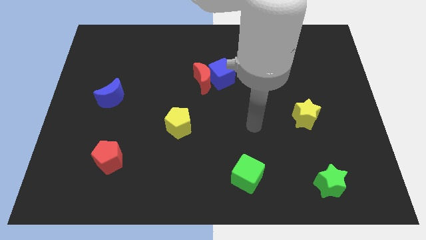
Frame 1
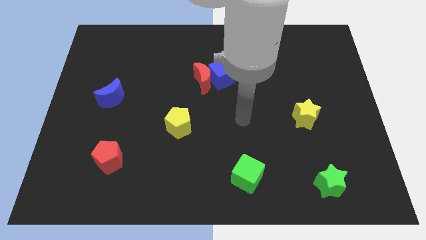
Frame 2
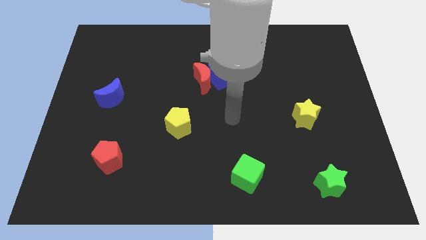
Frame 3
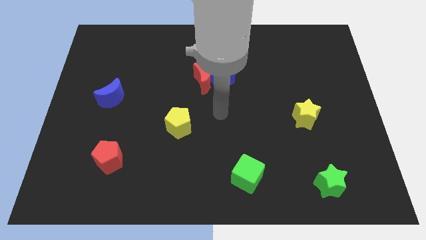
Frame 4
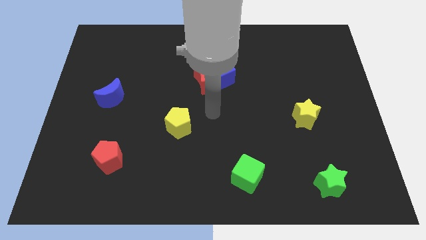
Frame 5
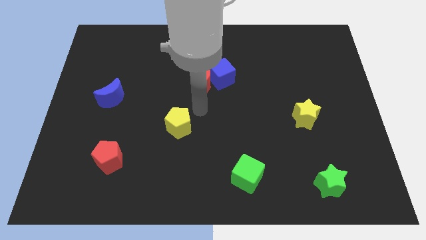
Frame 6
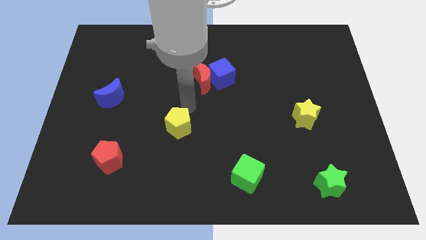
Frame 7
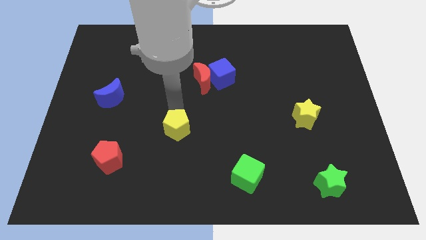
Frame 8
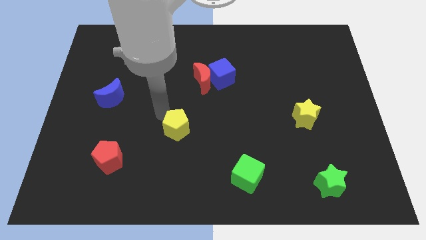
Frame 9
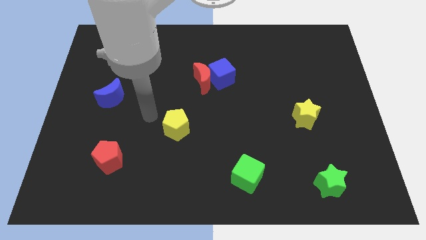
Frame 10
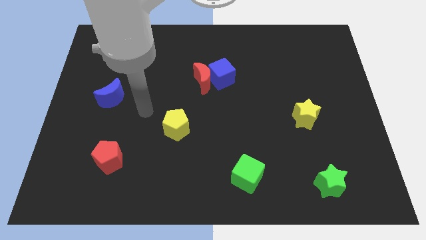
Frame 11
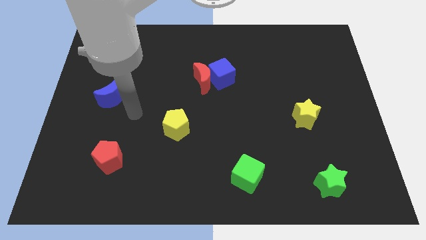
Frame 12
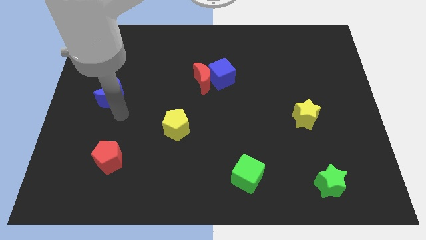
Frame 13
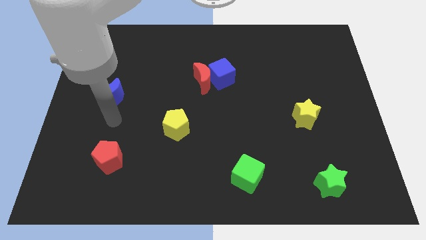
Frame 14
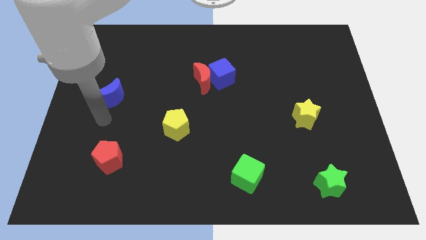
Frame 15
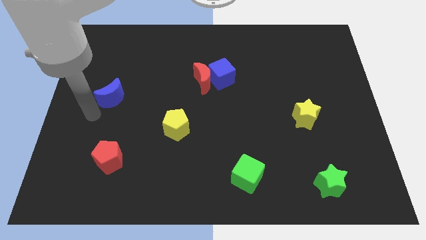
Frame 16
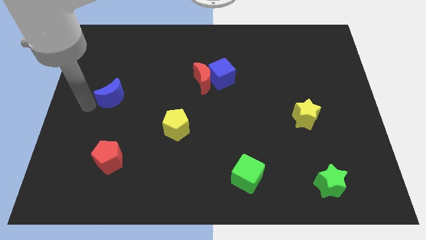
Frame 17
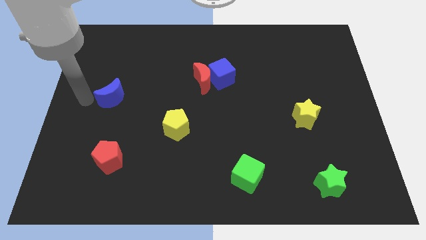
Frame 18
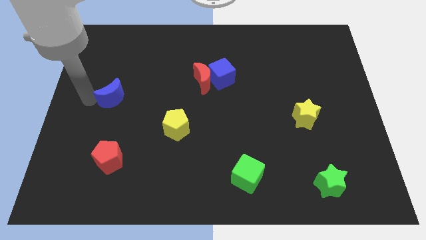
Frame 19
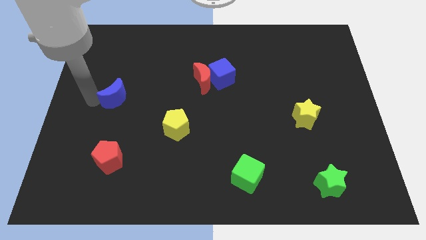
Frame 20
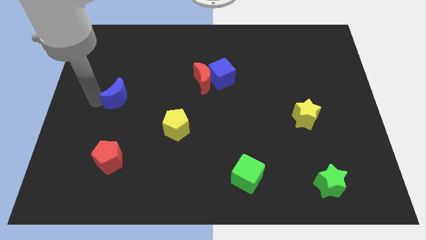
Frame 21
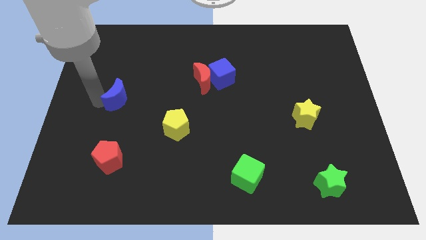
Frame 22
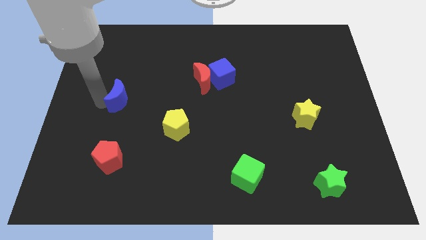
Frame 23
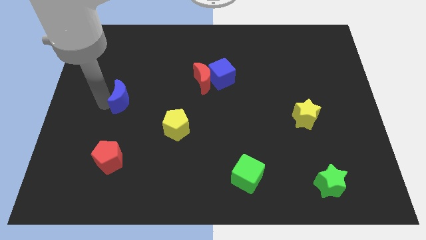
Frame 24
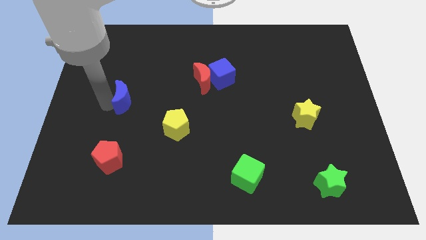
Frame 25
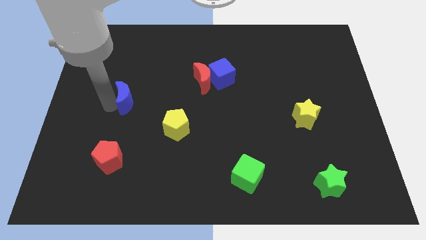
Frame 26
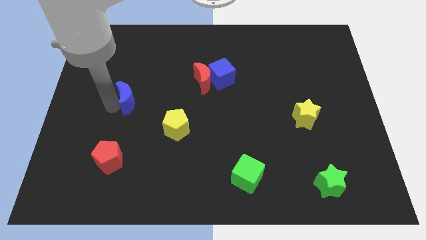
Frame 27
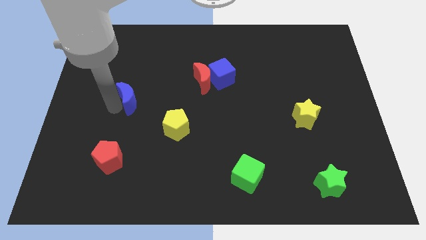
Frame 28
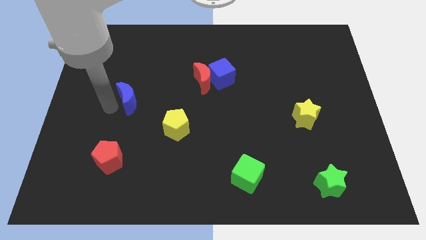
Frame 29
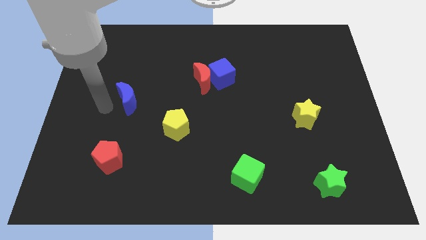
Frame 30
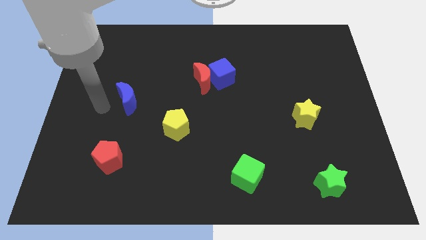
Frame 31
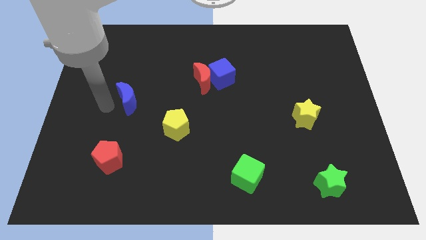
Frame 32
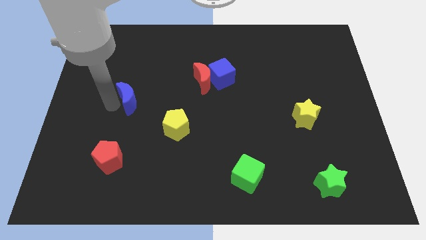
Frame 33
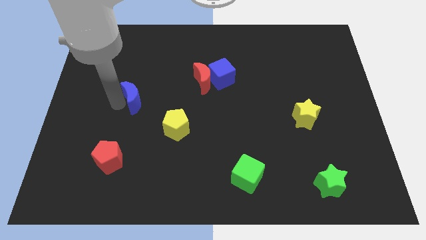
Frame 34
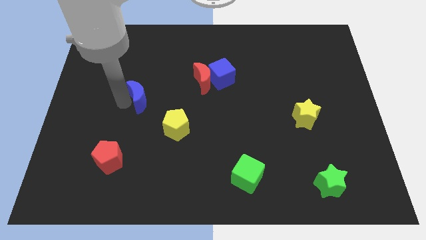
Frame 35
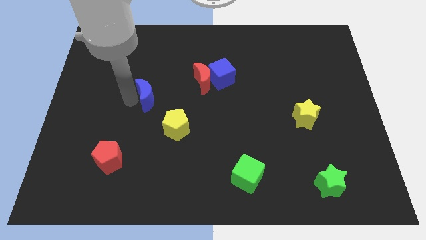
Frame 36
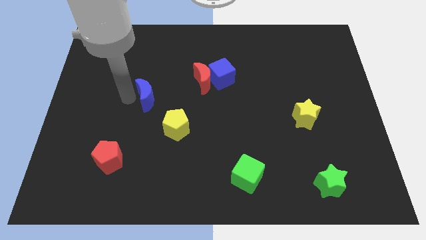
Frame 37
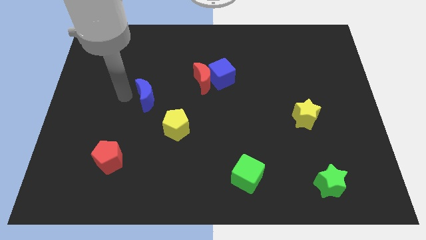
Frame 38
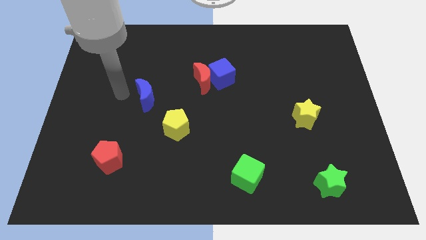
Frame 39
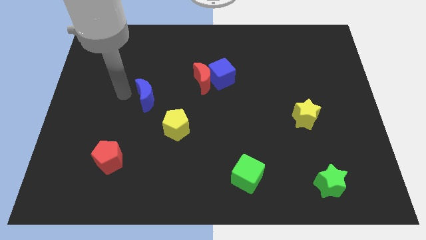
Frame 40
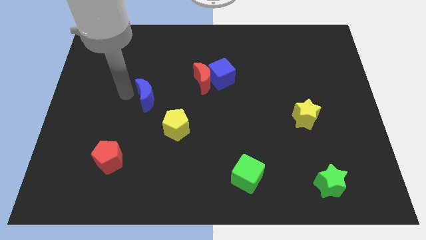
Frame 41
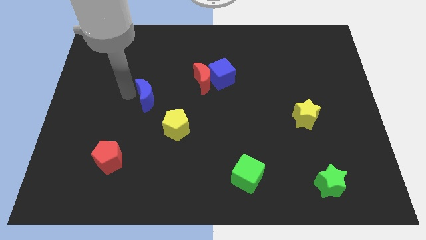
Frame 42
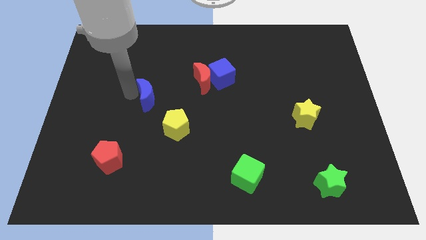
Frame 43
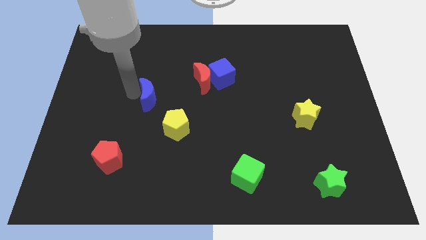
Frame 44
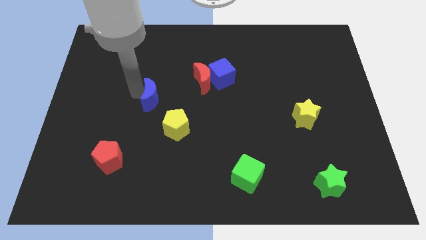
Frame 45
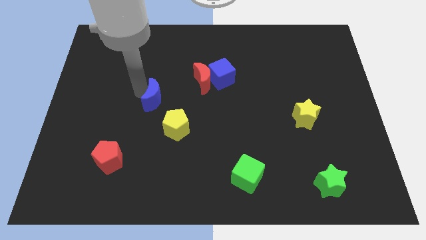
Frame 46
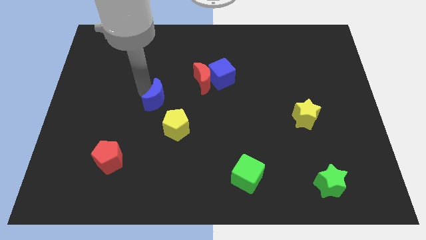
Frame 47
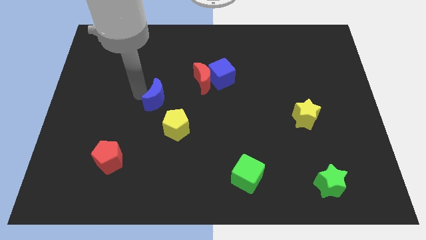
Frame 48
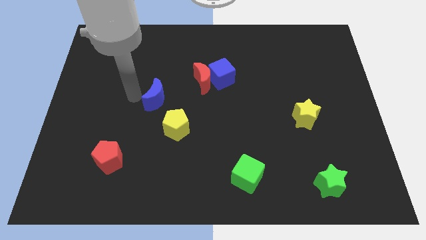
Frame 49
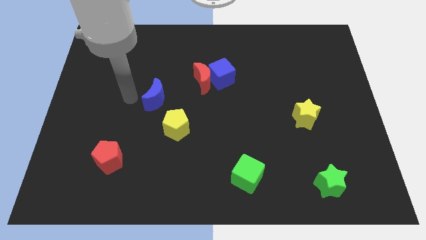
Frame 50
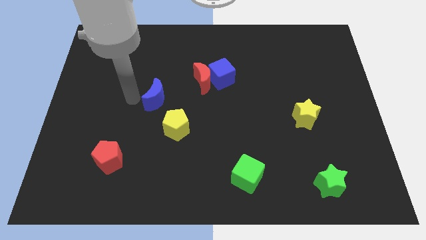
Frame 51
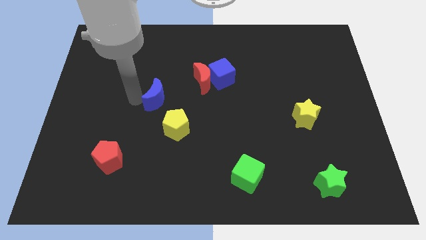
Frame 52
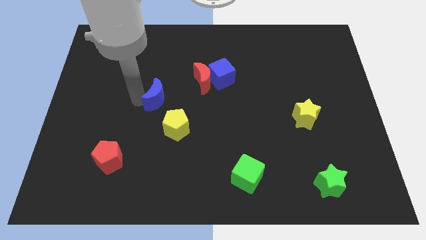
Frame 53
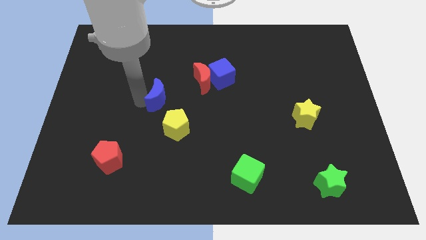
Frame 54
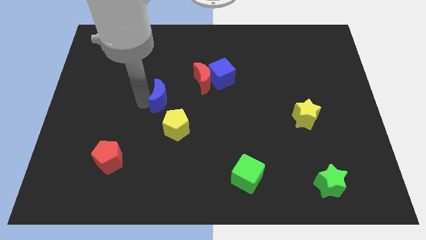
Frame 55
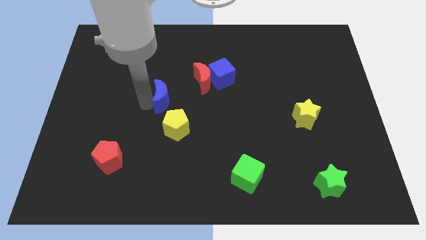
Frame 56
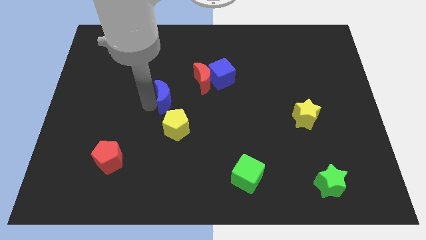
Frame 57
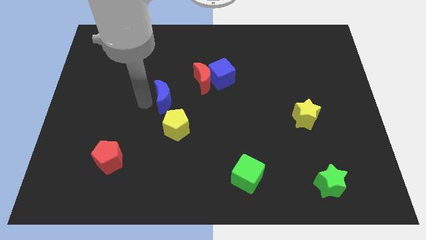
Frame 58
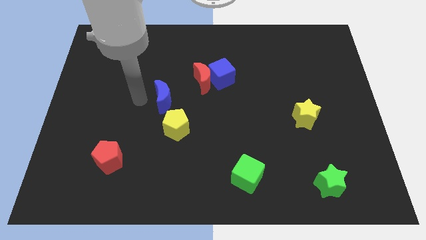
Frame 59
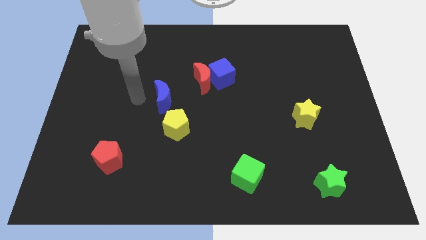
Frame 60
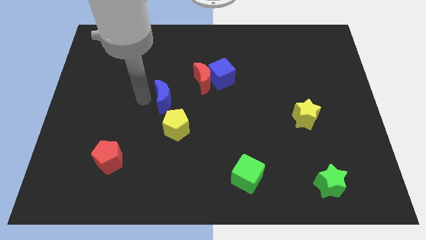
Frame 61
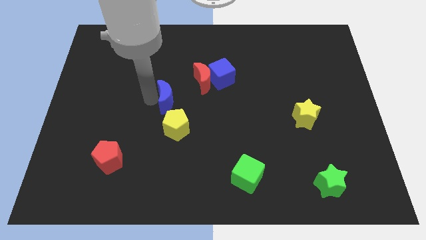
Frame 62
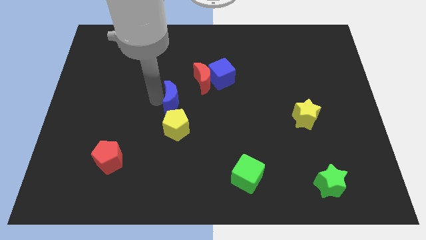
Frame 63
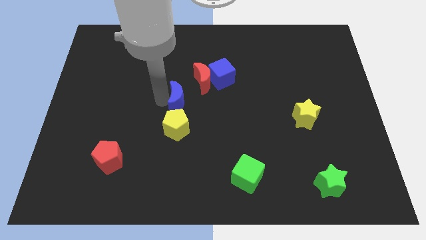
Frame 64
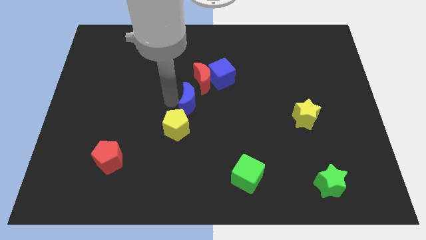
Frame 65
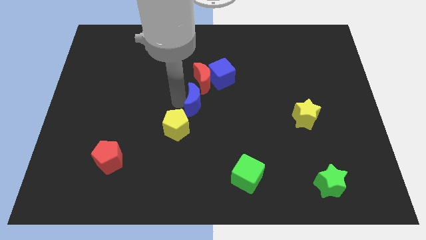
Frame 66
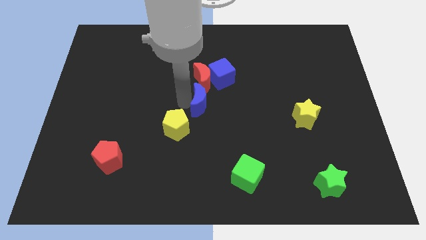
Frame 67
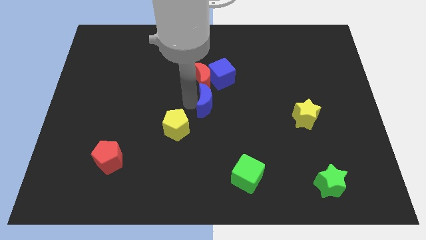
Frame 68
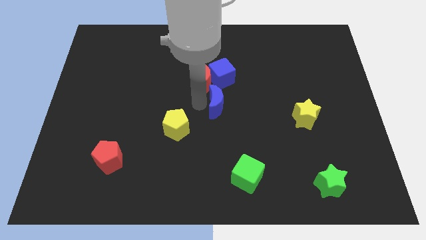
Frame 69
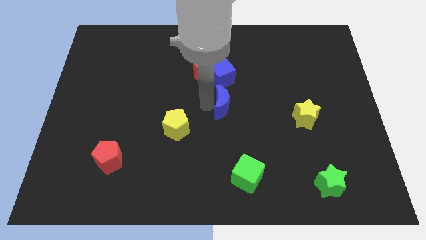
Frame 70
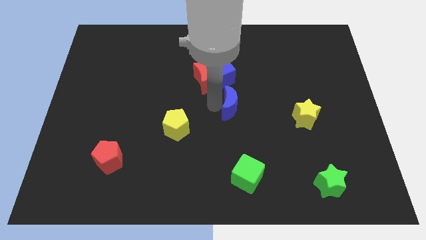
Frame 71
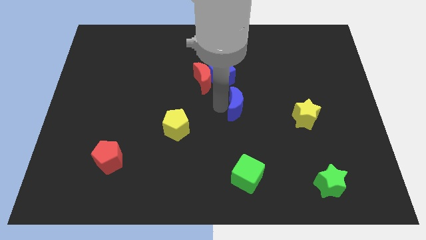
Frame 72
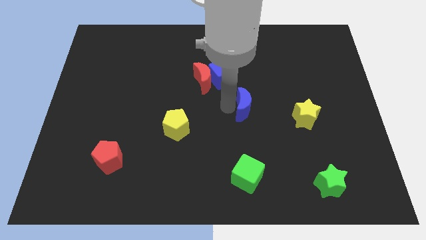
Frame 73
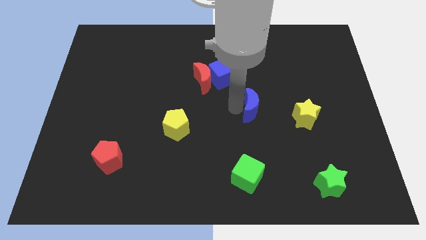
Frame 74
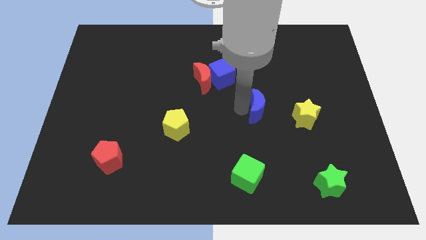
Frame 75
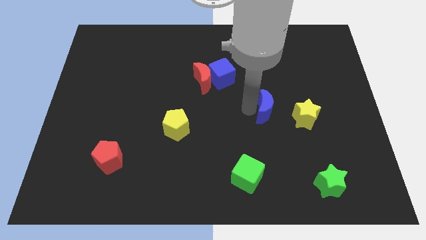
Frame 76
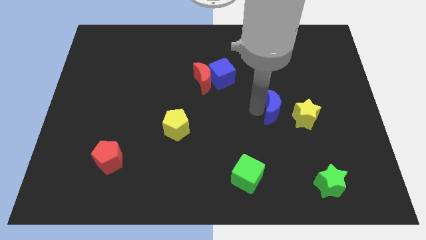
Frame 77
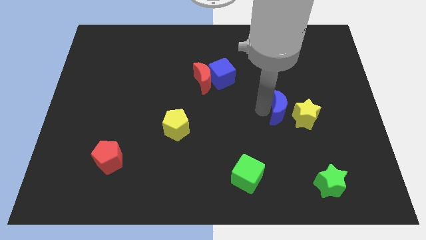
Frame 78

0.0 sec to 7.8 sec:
move the blue moon close to the yellow star

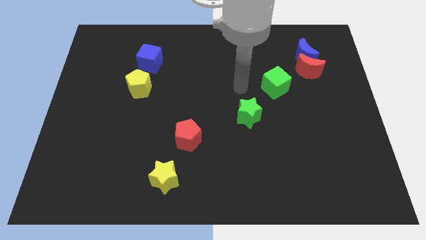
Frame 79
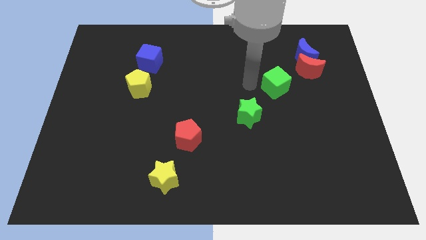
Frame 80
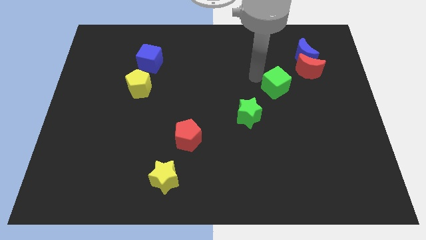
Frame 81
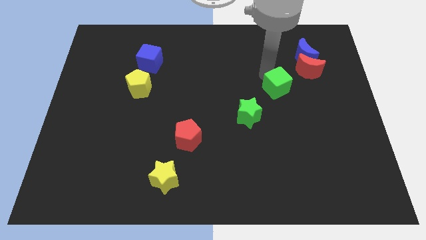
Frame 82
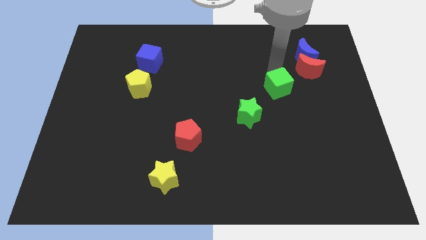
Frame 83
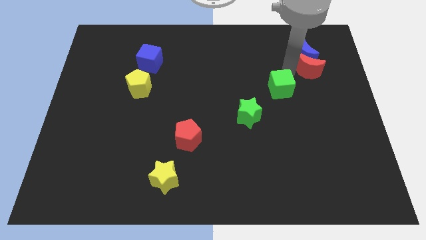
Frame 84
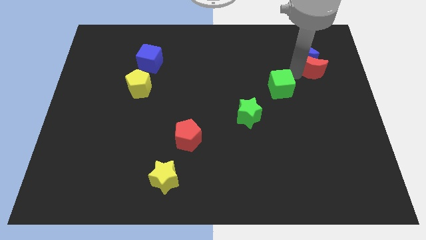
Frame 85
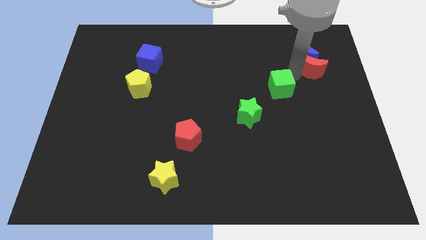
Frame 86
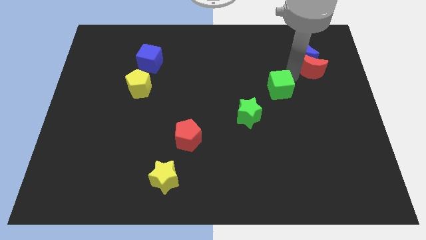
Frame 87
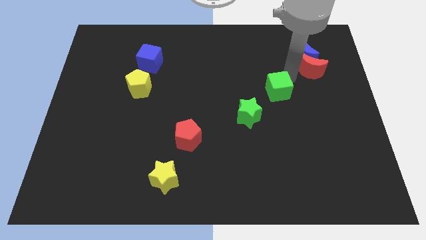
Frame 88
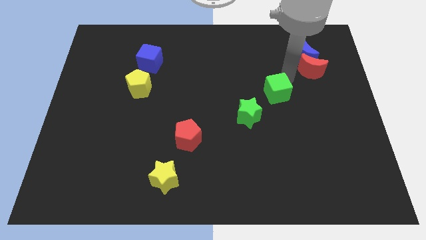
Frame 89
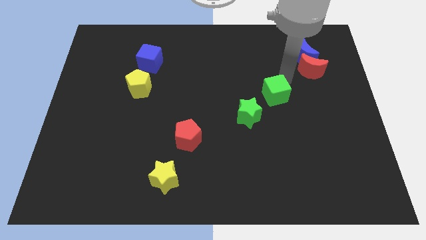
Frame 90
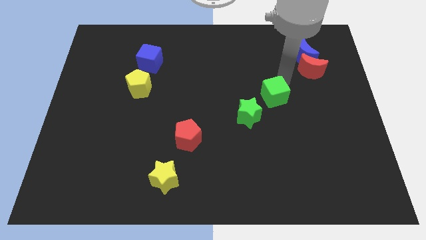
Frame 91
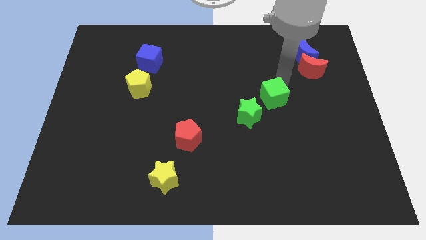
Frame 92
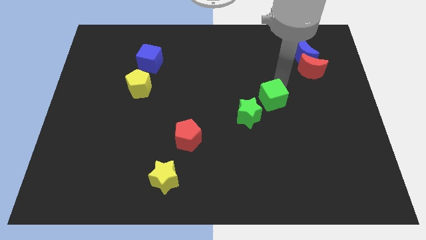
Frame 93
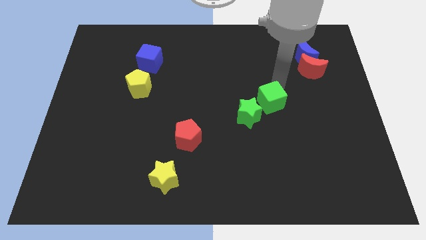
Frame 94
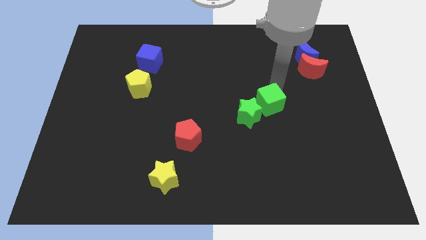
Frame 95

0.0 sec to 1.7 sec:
slide the green cube to the green star
